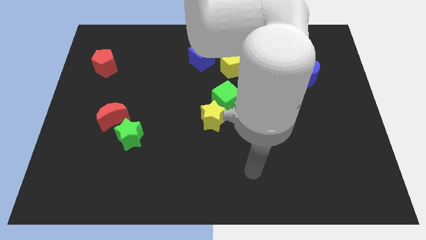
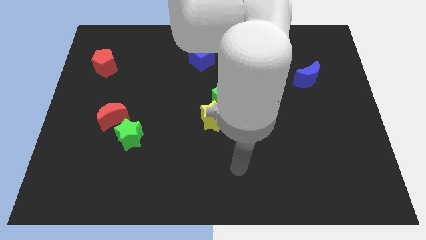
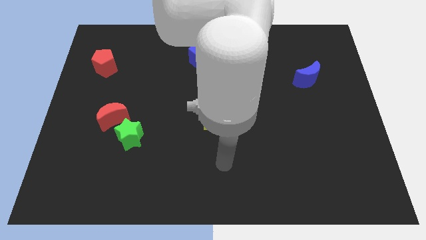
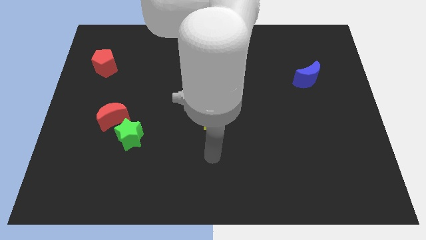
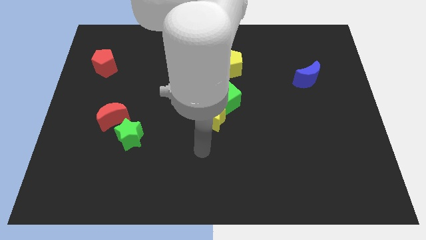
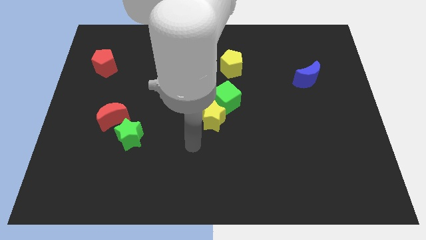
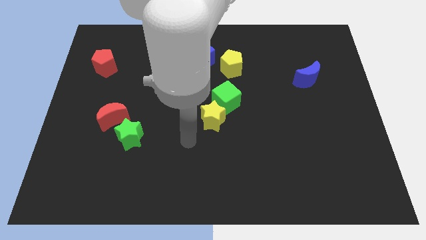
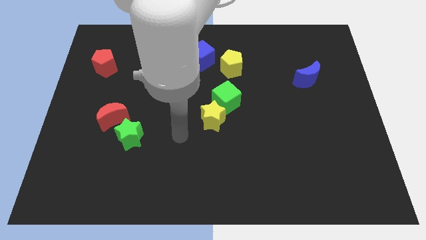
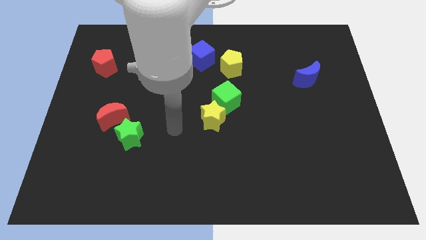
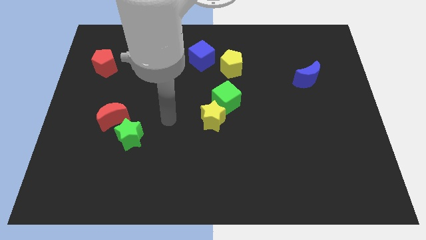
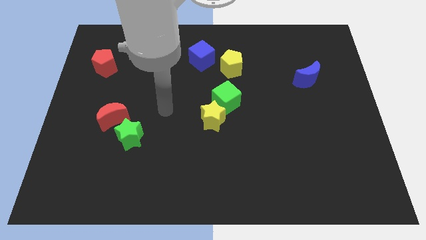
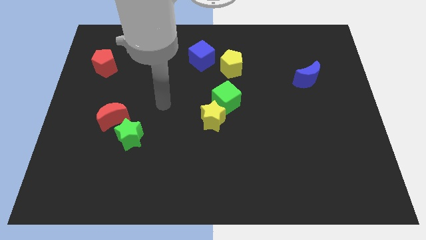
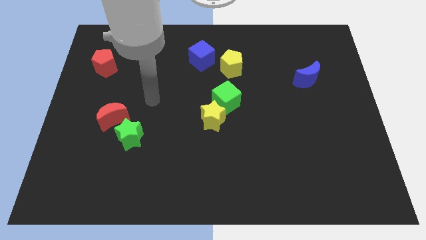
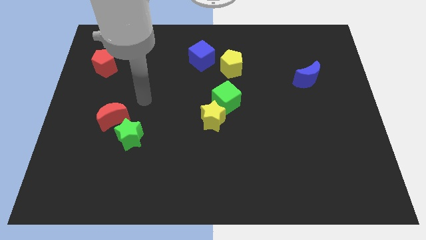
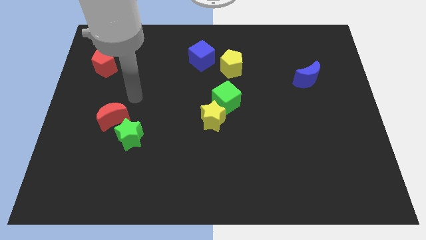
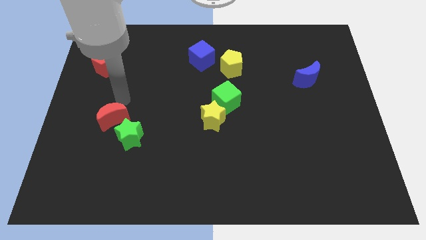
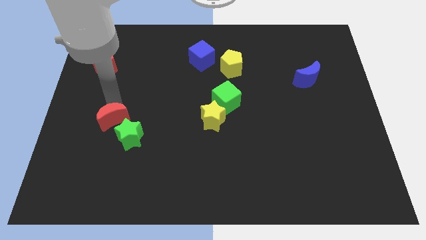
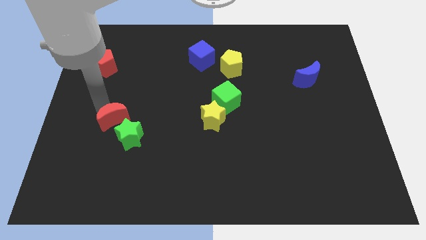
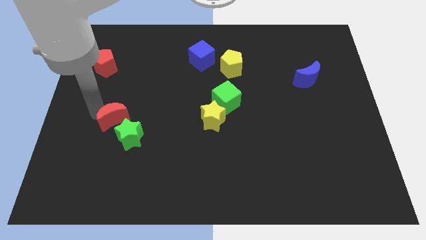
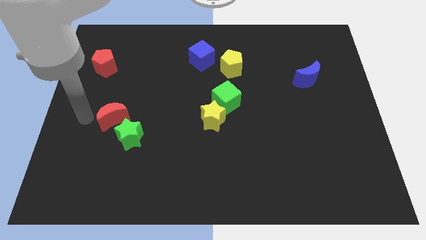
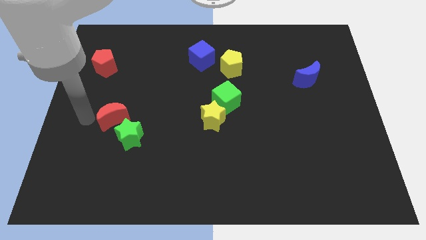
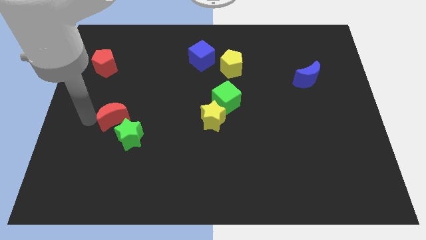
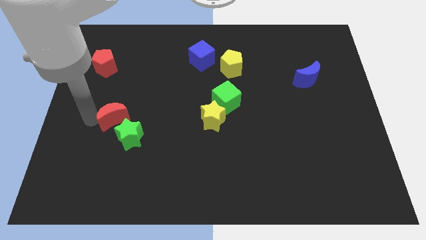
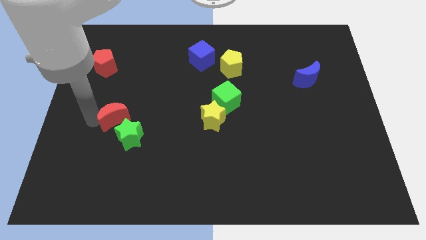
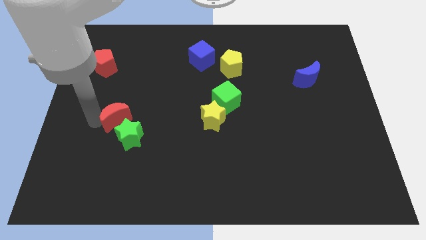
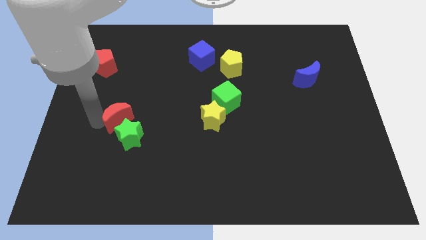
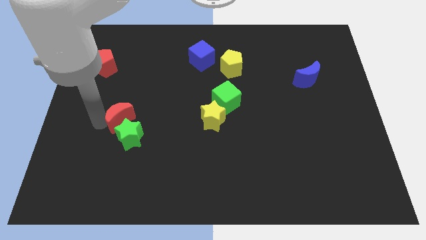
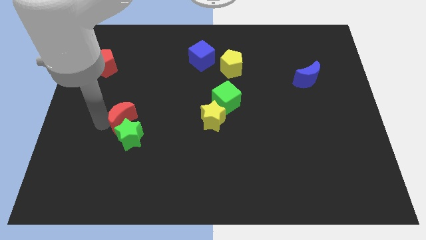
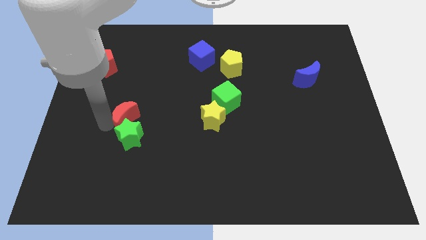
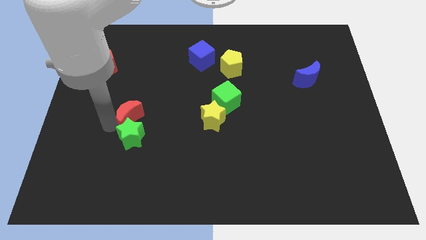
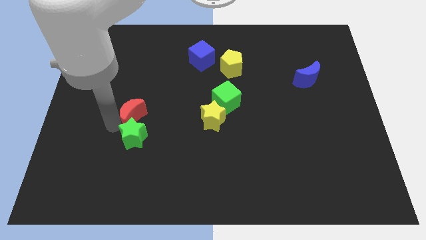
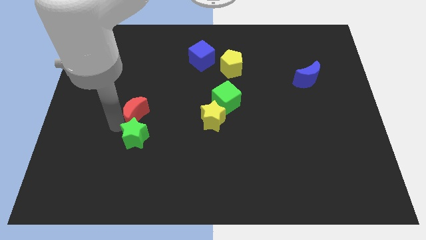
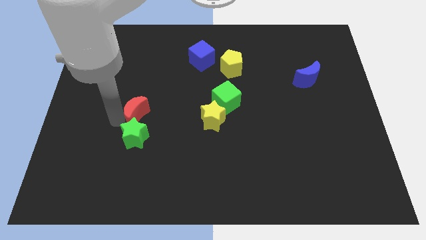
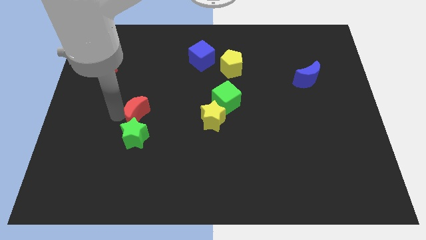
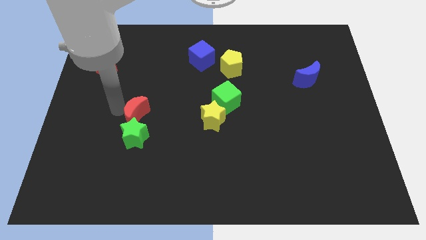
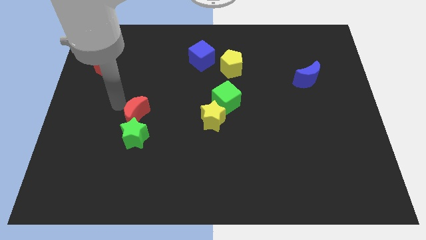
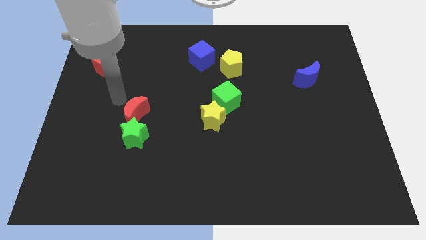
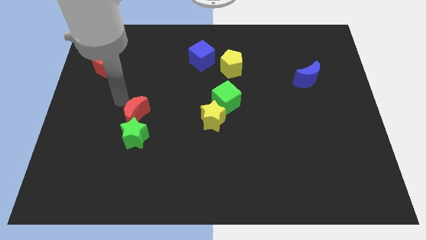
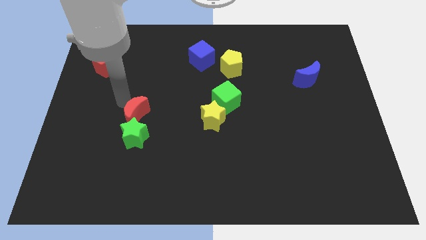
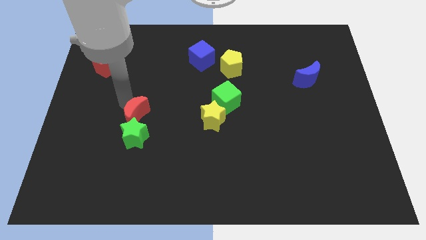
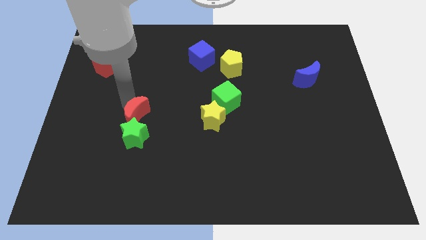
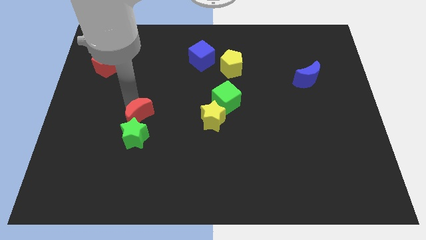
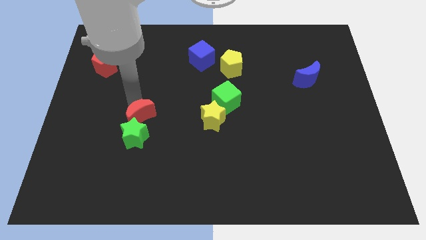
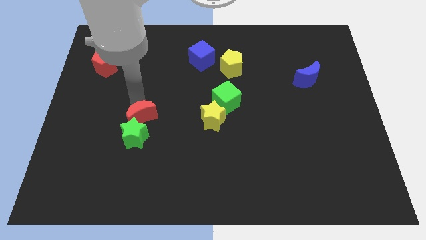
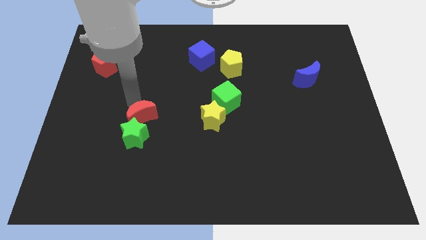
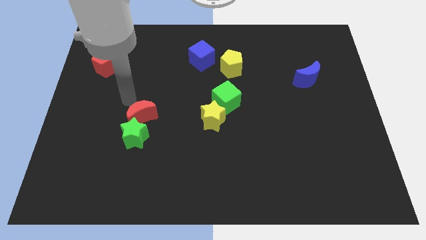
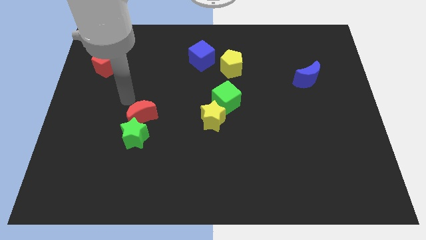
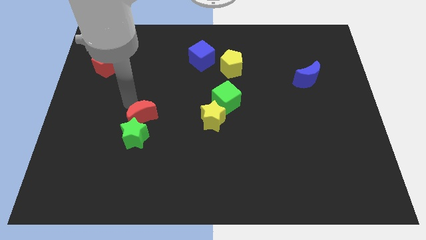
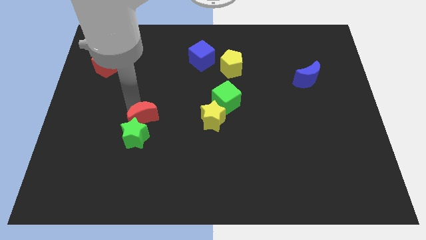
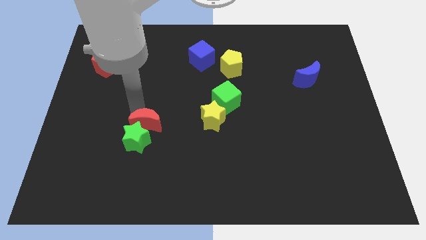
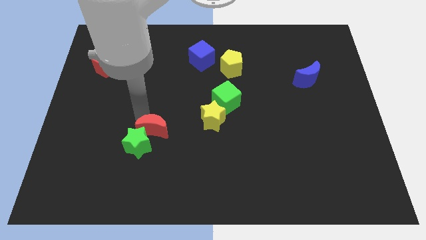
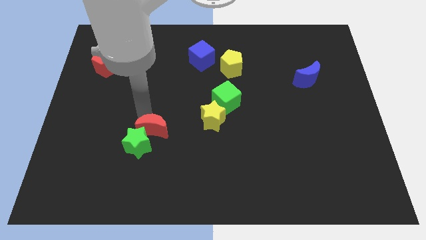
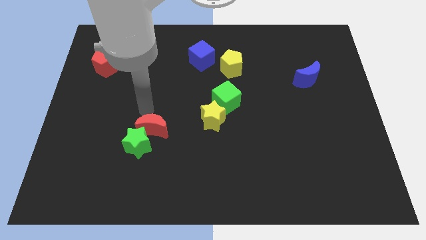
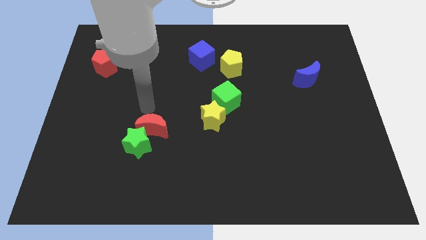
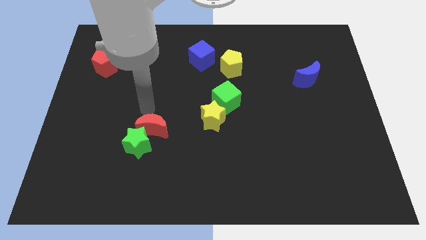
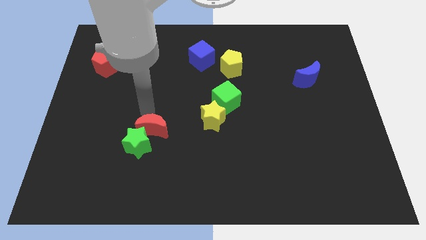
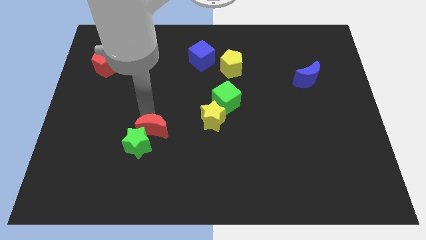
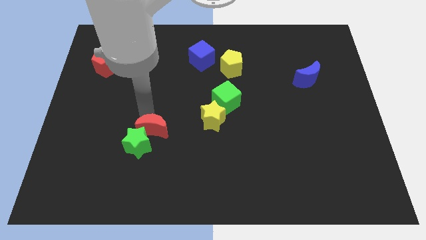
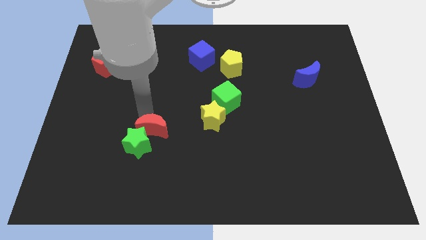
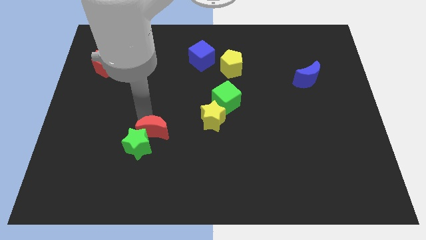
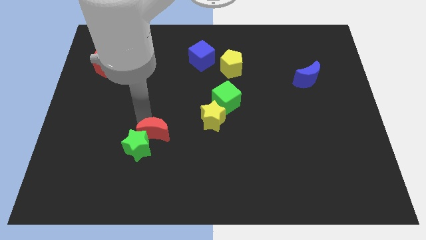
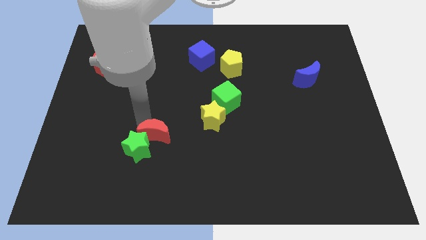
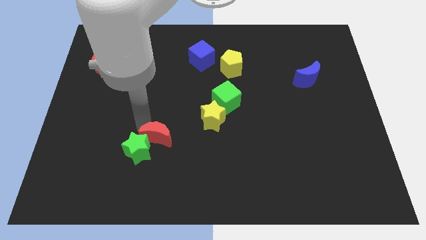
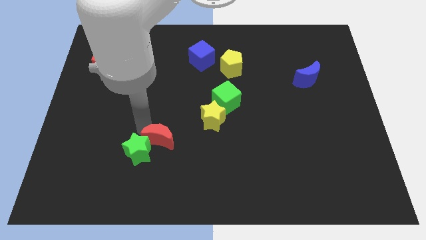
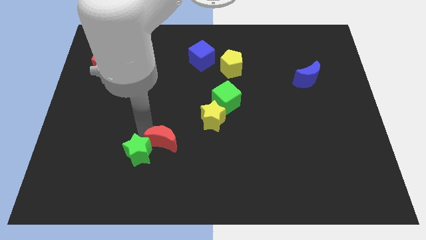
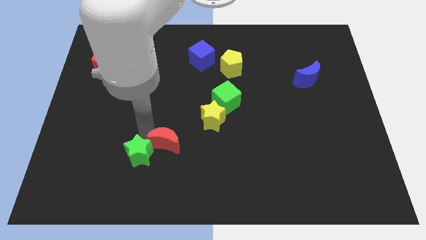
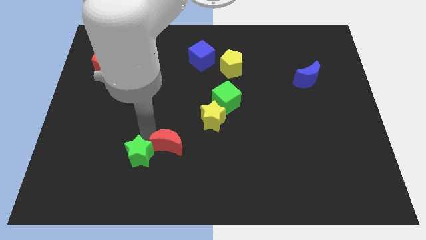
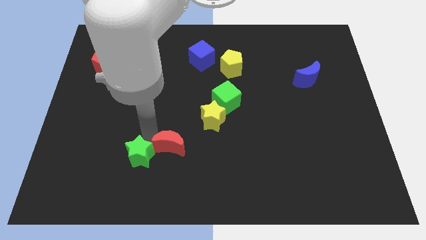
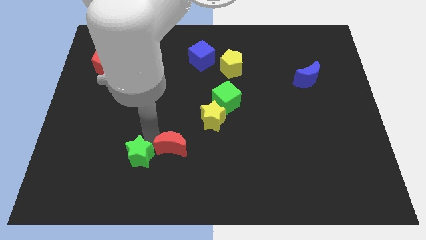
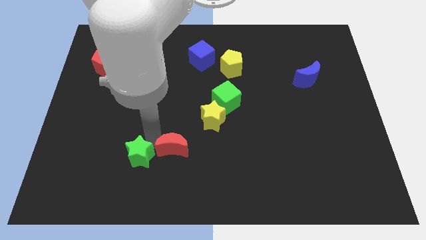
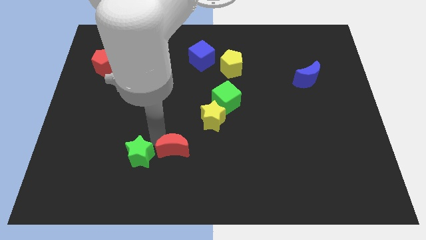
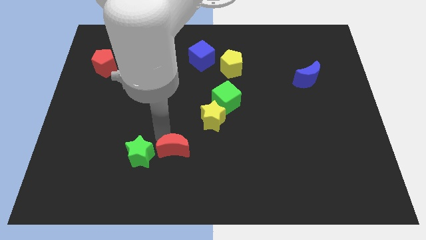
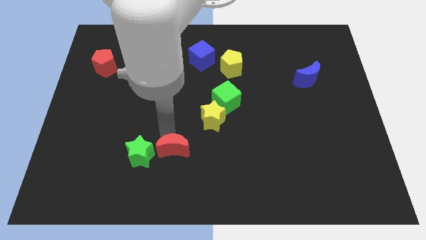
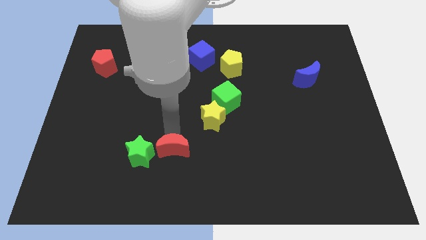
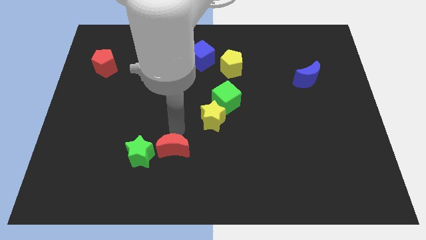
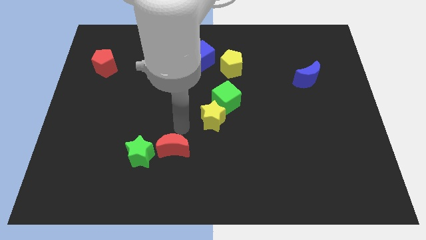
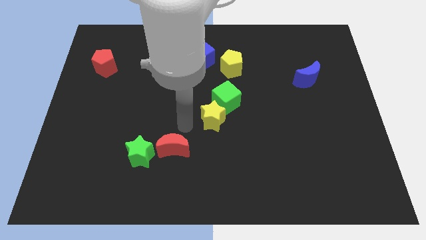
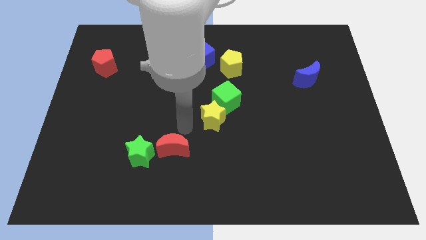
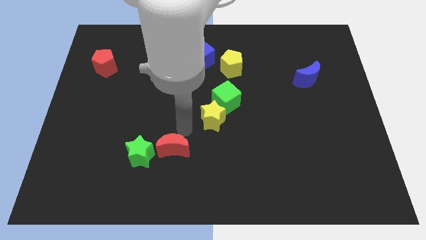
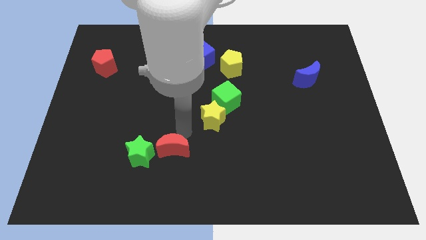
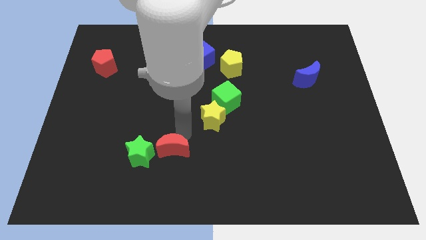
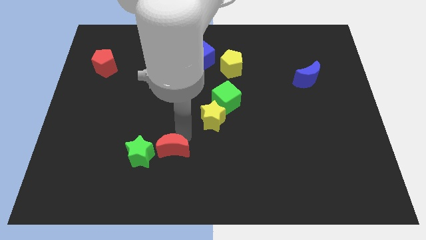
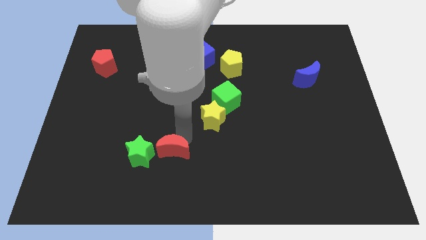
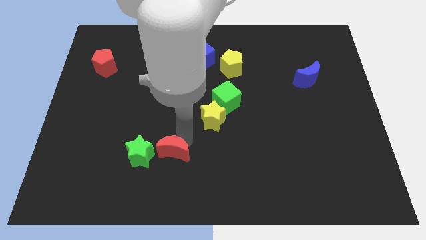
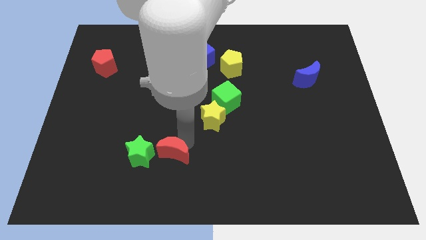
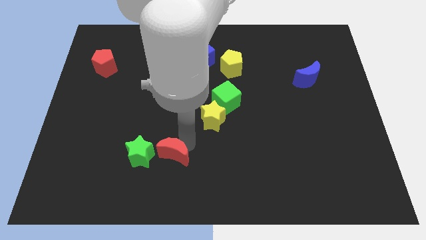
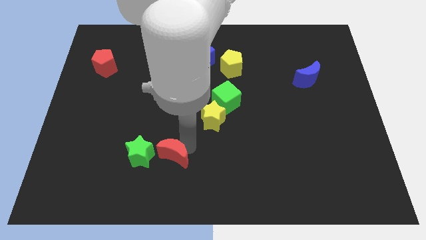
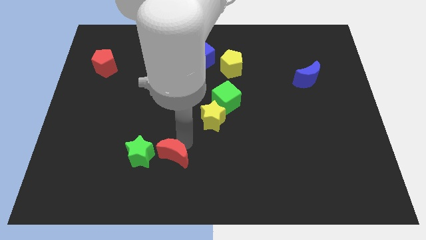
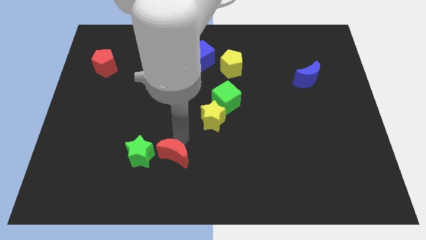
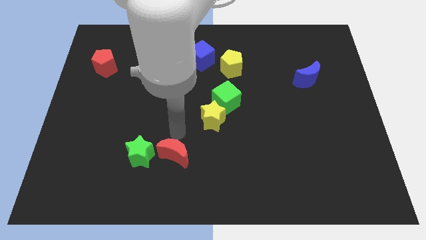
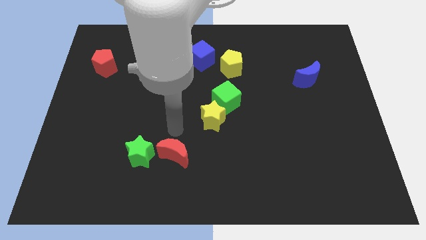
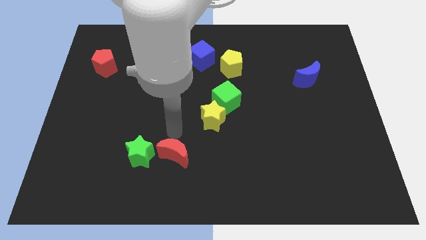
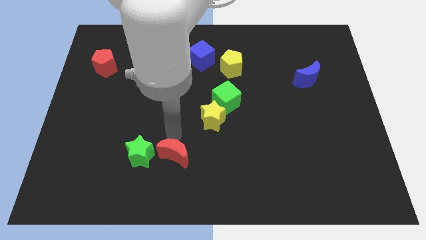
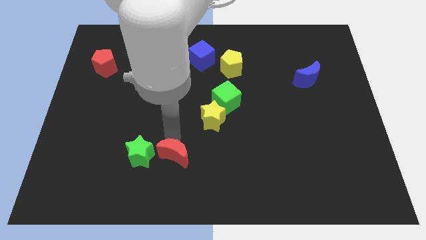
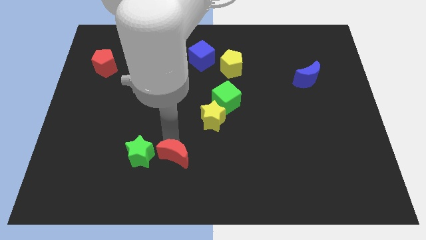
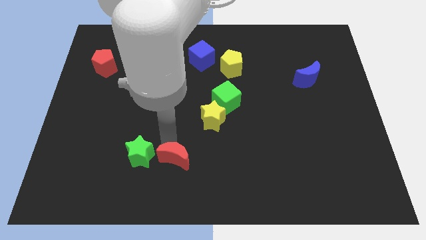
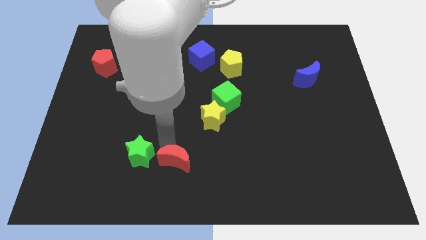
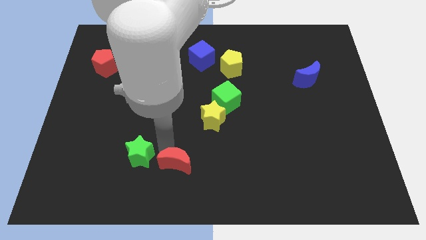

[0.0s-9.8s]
move the red moon to the bottom side
